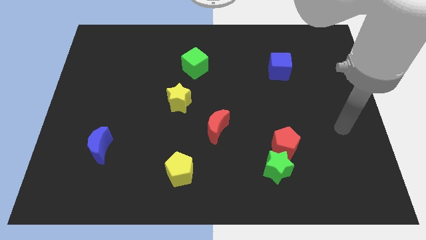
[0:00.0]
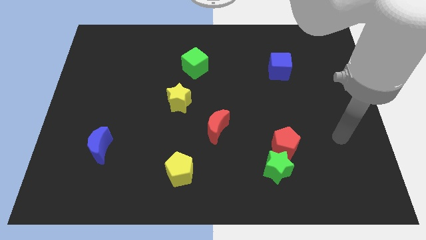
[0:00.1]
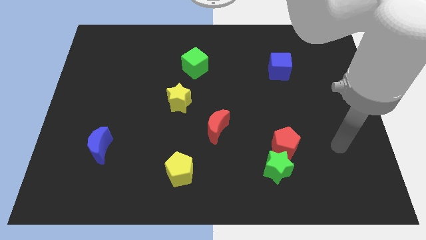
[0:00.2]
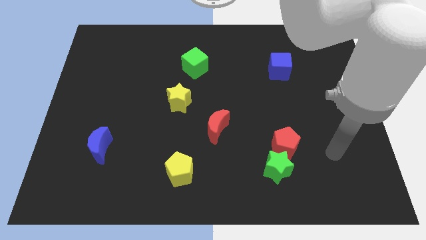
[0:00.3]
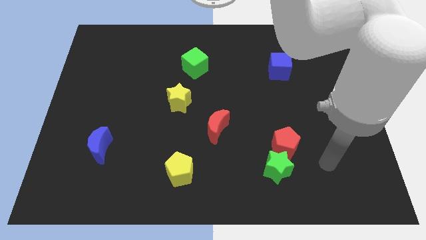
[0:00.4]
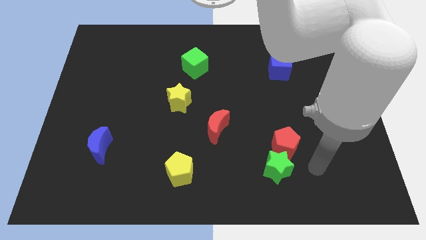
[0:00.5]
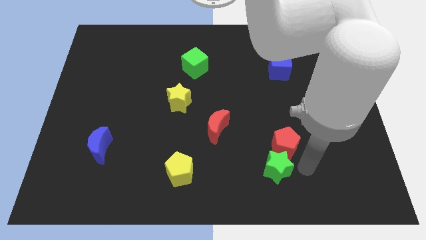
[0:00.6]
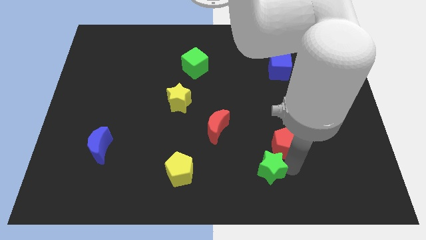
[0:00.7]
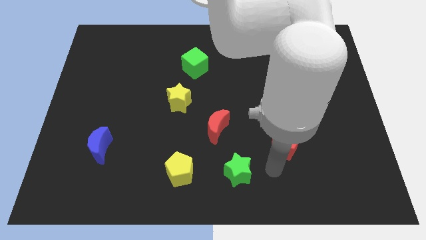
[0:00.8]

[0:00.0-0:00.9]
pull the red pentagon apart from the green star

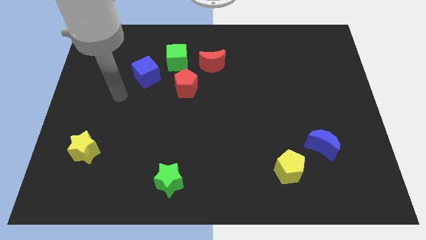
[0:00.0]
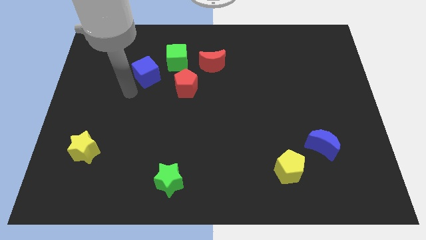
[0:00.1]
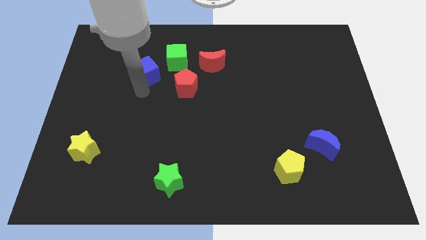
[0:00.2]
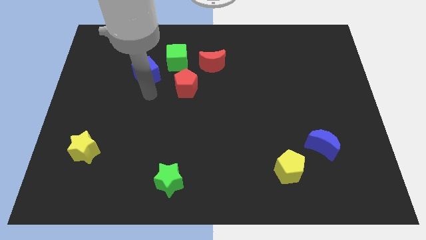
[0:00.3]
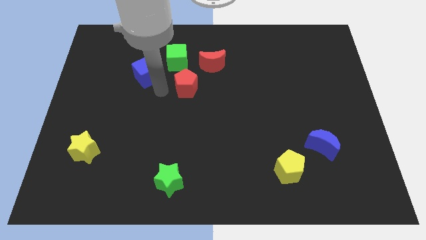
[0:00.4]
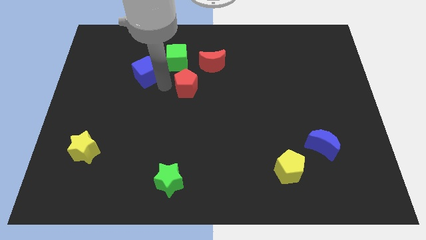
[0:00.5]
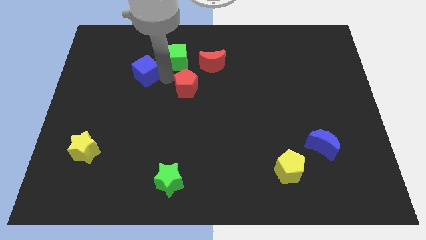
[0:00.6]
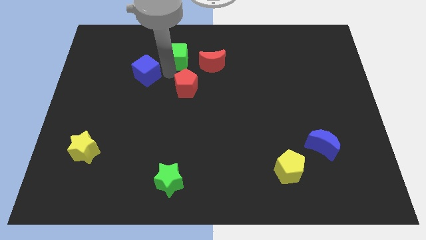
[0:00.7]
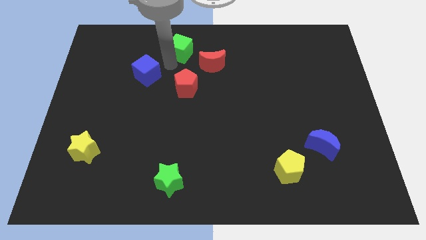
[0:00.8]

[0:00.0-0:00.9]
separate the blue cube from the green cube

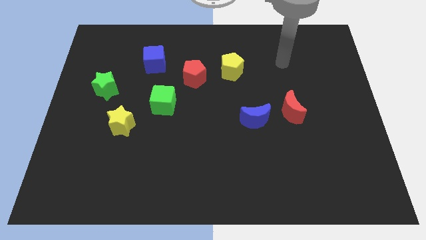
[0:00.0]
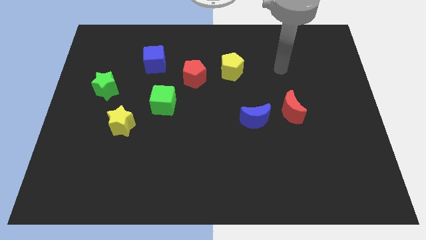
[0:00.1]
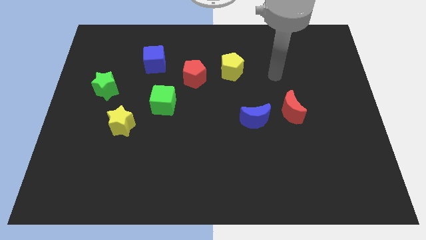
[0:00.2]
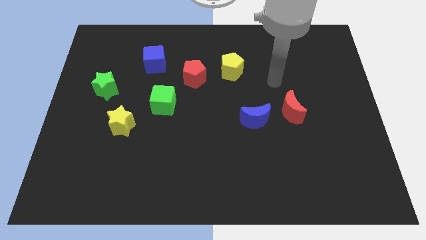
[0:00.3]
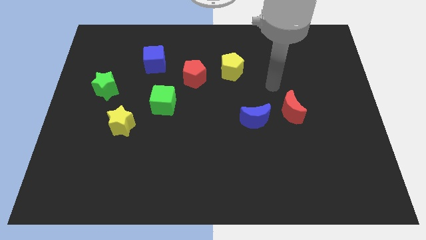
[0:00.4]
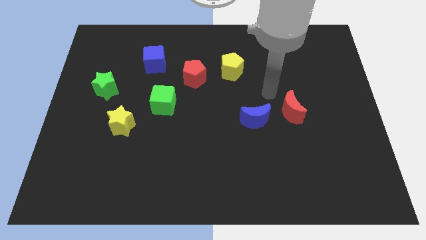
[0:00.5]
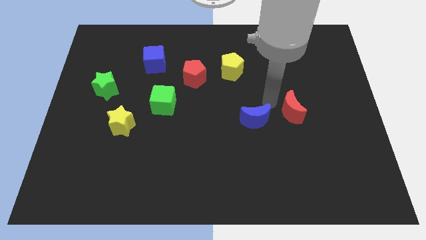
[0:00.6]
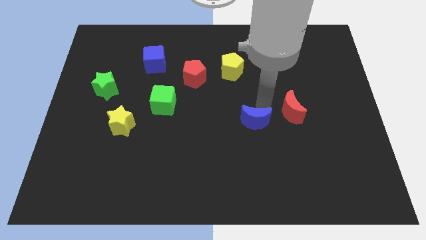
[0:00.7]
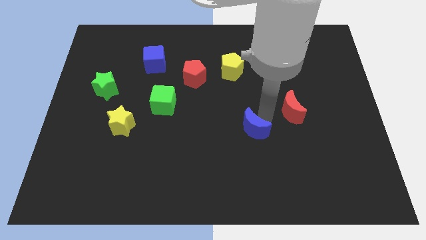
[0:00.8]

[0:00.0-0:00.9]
separate the red moon from the blue moon

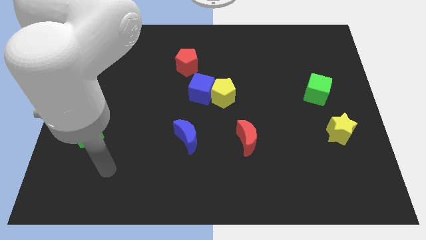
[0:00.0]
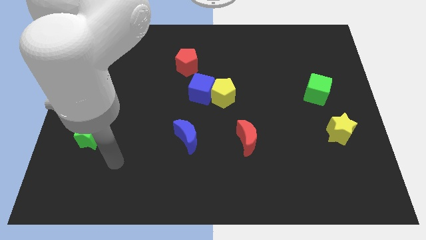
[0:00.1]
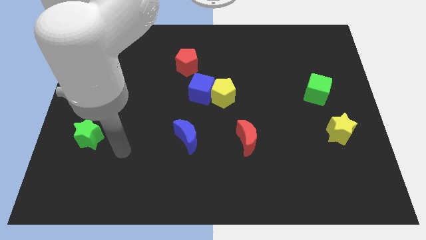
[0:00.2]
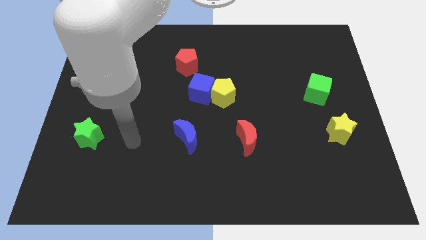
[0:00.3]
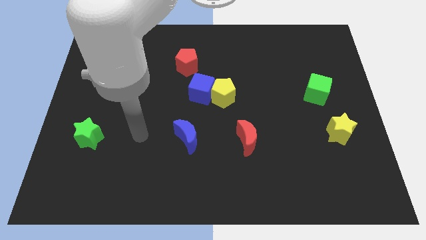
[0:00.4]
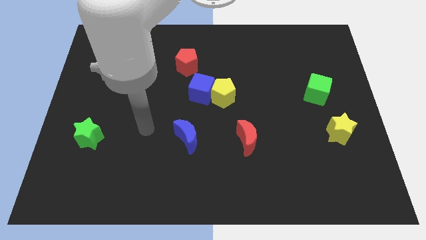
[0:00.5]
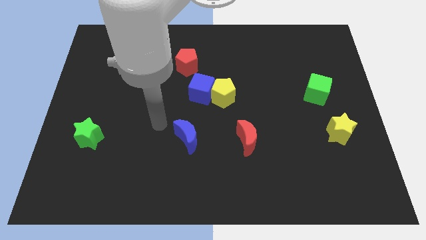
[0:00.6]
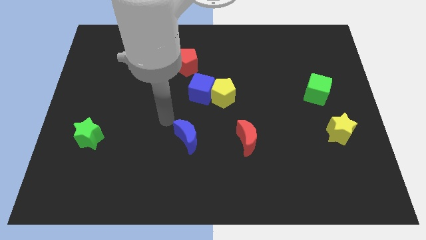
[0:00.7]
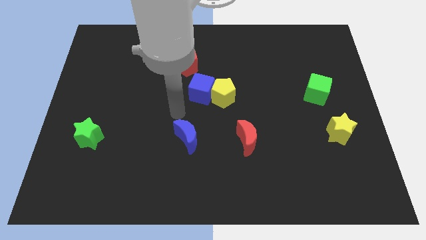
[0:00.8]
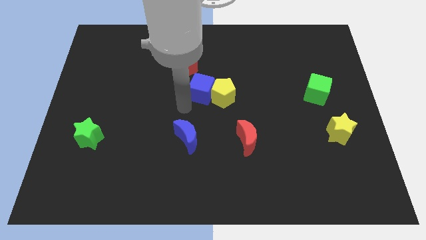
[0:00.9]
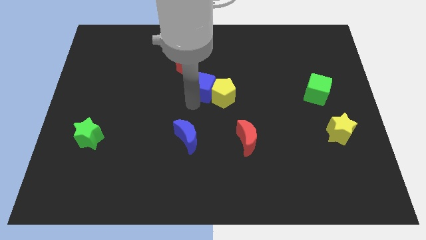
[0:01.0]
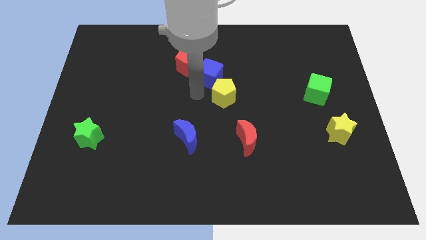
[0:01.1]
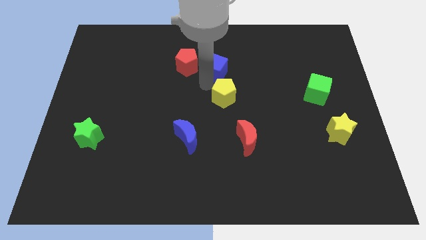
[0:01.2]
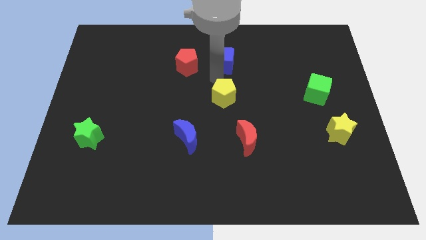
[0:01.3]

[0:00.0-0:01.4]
pull the yellow pentagon apart from the blue cube

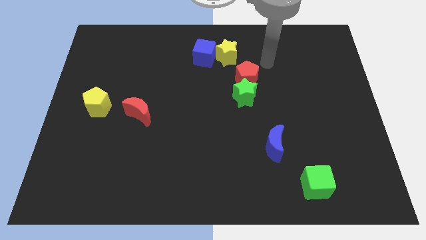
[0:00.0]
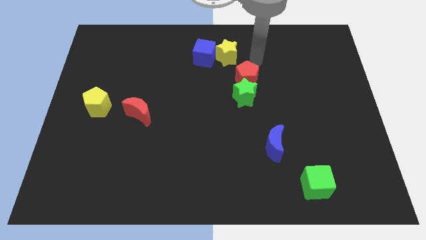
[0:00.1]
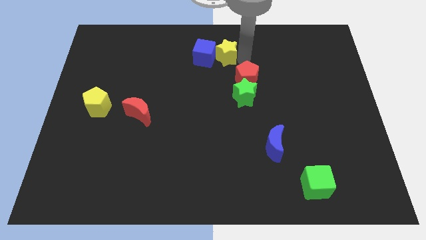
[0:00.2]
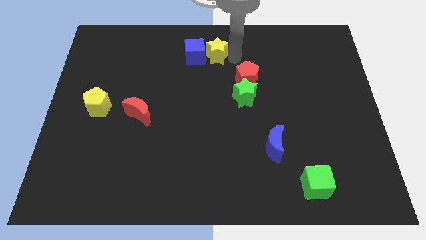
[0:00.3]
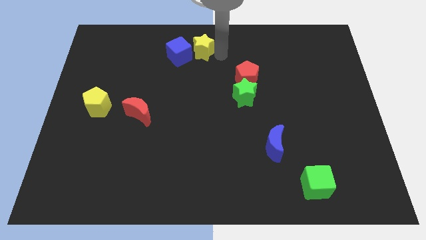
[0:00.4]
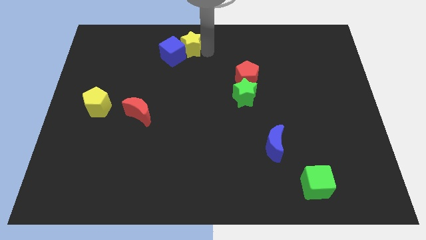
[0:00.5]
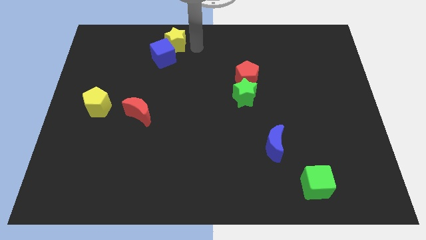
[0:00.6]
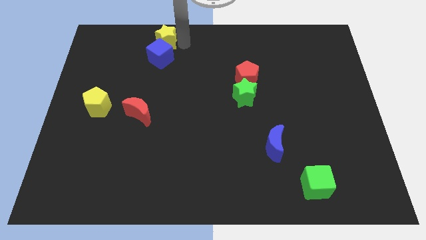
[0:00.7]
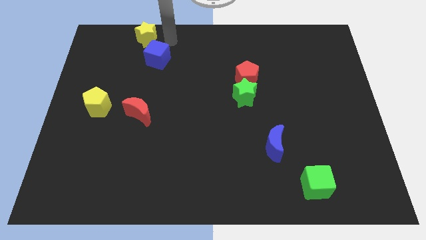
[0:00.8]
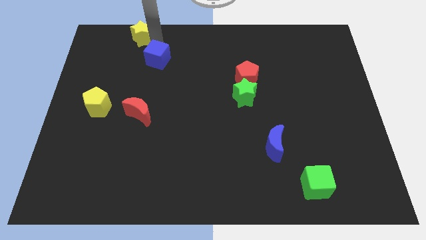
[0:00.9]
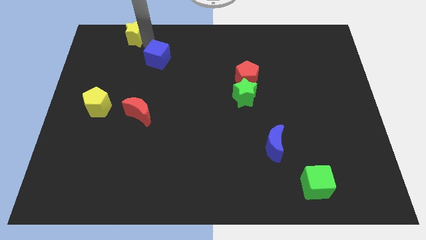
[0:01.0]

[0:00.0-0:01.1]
separate the blue cube from the yellow star

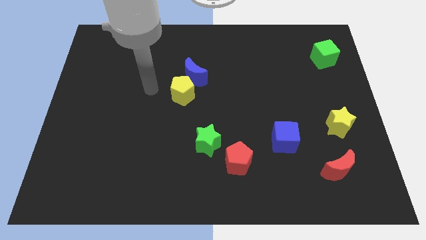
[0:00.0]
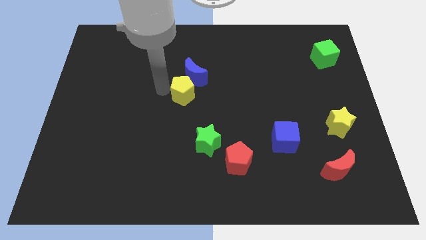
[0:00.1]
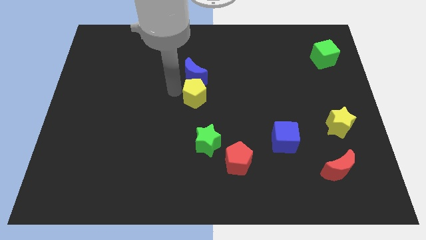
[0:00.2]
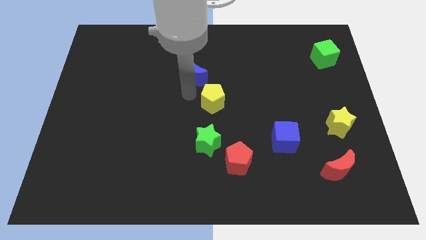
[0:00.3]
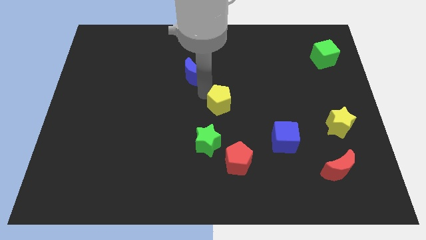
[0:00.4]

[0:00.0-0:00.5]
pull the blue moon apart from the yellow pentagon

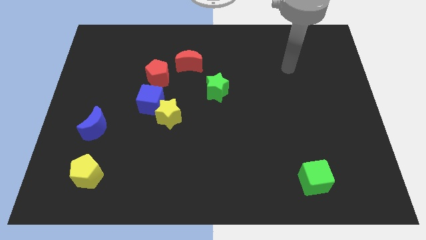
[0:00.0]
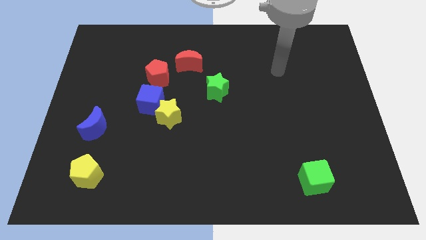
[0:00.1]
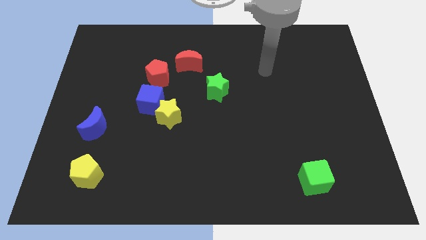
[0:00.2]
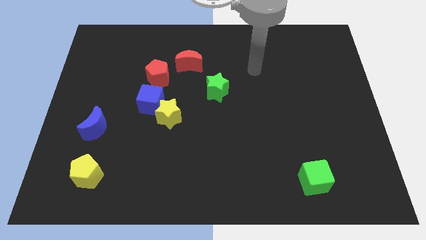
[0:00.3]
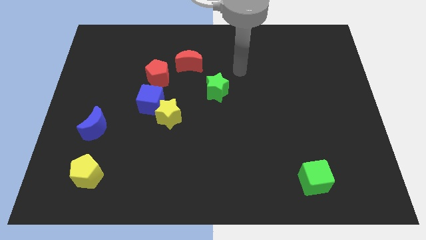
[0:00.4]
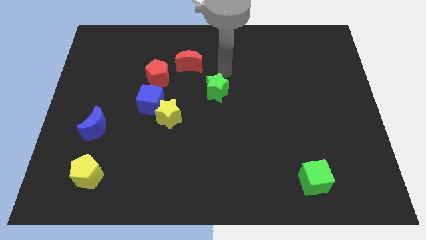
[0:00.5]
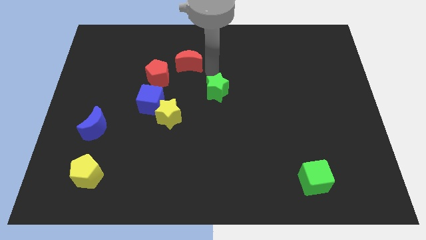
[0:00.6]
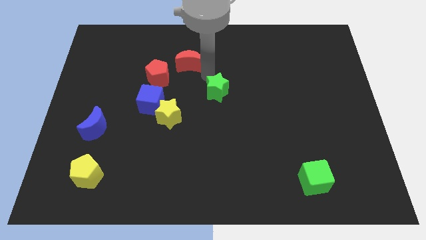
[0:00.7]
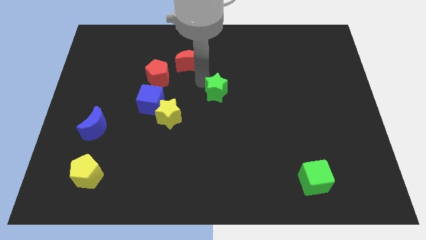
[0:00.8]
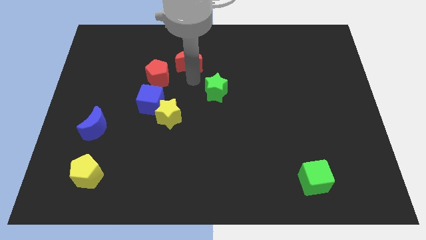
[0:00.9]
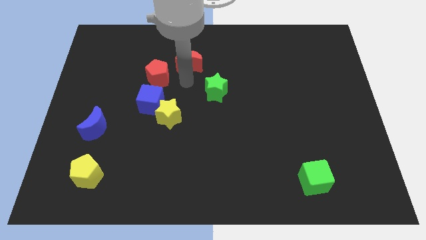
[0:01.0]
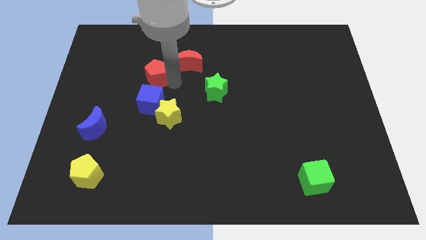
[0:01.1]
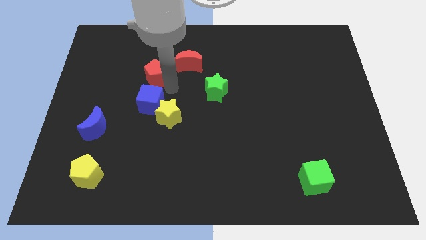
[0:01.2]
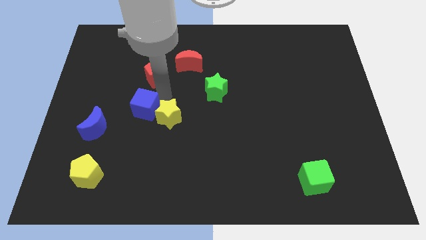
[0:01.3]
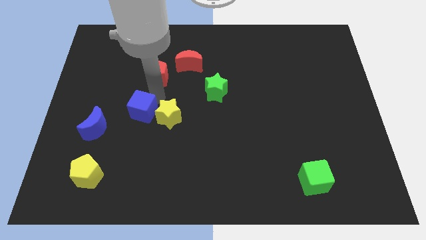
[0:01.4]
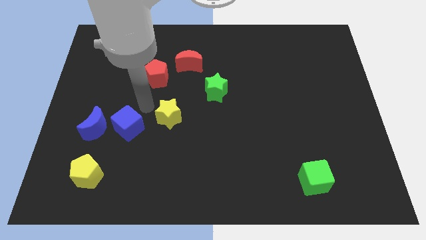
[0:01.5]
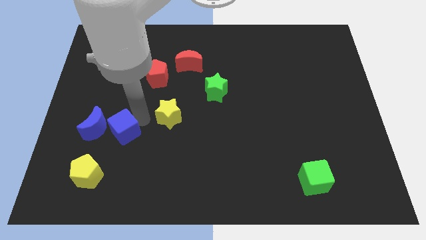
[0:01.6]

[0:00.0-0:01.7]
move the yellow star away from the blue cube

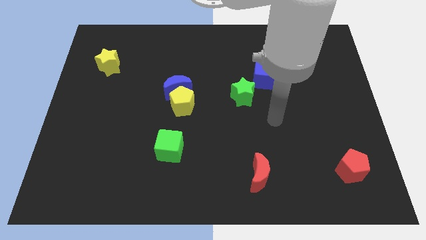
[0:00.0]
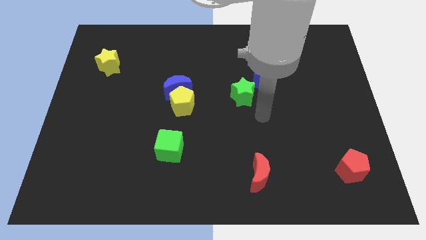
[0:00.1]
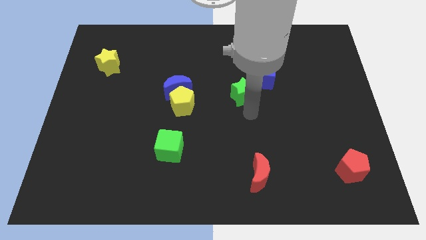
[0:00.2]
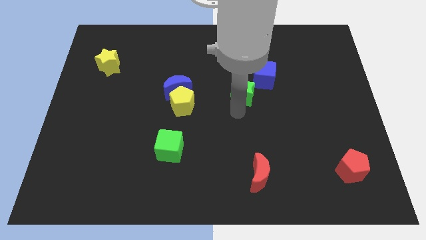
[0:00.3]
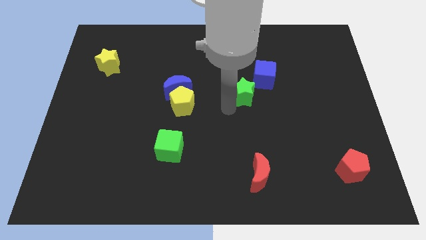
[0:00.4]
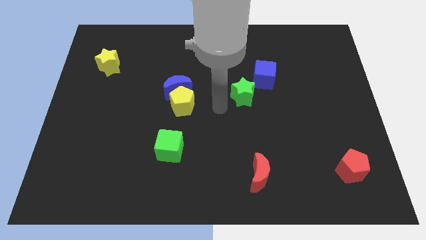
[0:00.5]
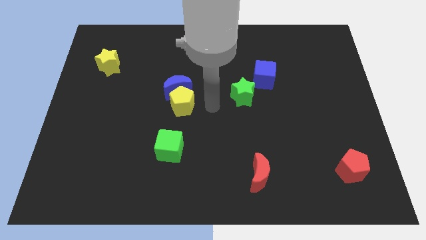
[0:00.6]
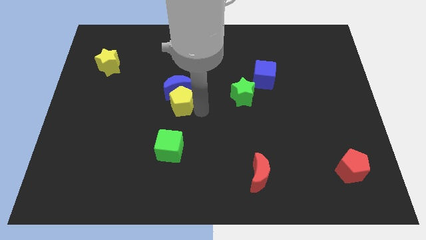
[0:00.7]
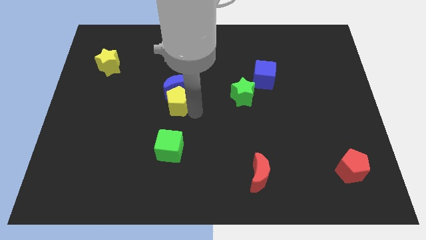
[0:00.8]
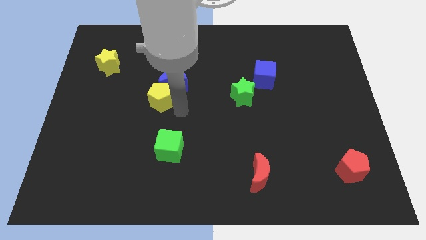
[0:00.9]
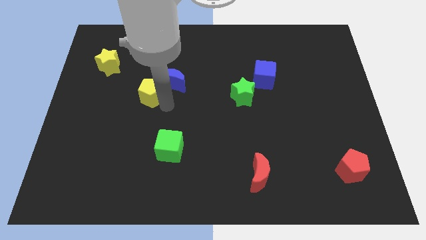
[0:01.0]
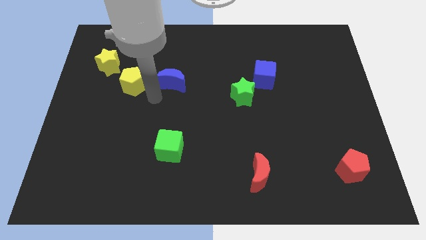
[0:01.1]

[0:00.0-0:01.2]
move the blue moon away from the yellow pentagon

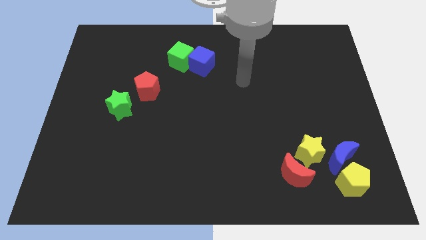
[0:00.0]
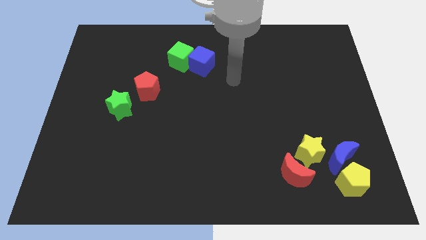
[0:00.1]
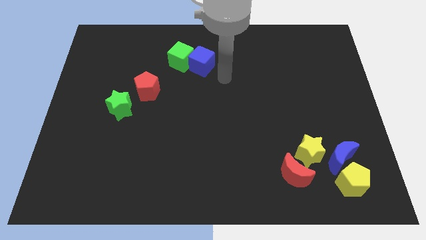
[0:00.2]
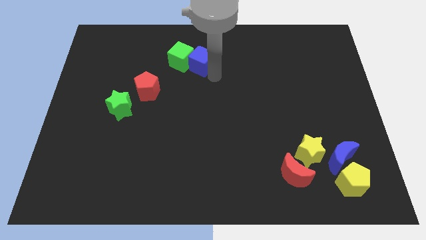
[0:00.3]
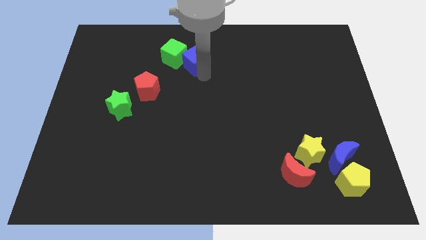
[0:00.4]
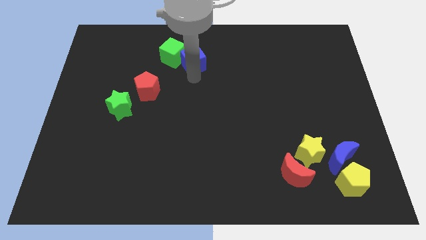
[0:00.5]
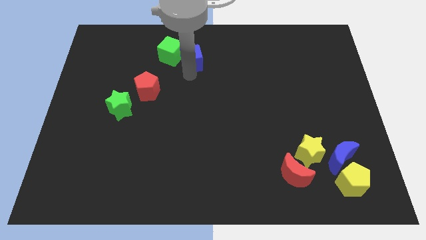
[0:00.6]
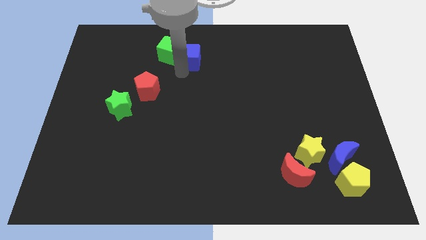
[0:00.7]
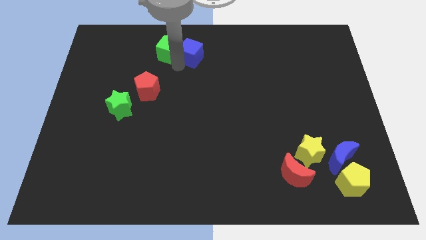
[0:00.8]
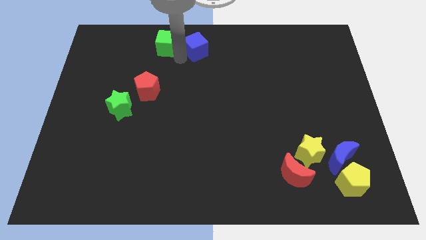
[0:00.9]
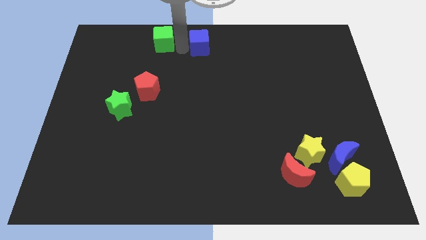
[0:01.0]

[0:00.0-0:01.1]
move the blue cube away from the green cube
